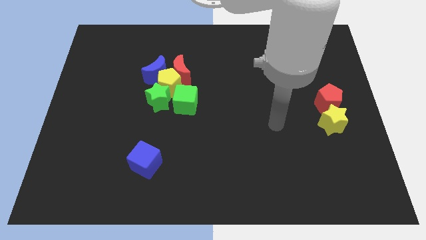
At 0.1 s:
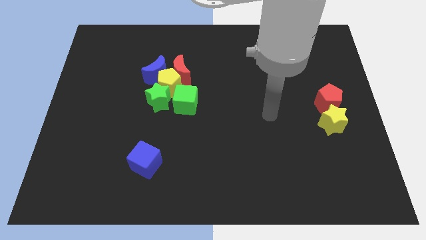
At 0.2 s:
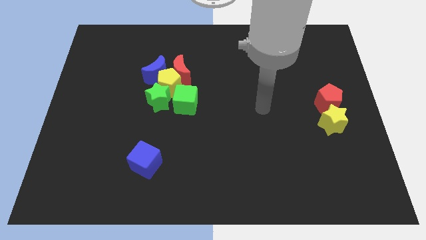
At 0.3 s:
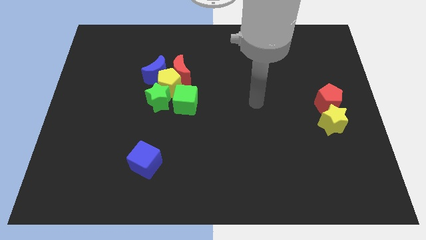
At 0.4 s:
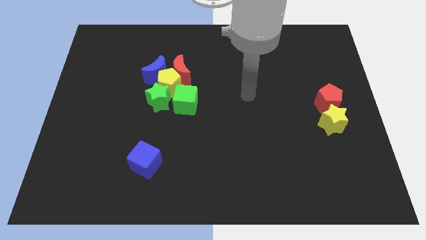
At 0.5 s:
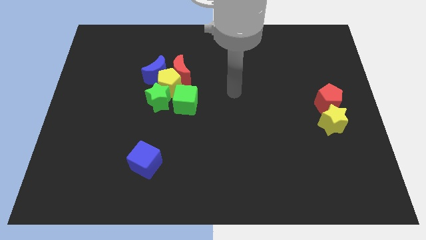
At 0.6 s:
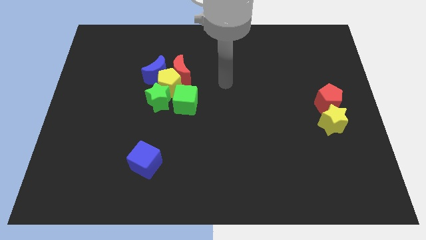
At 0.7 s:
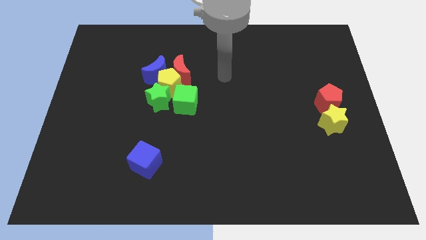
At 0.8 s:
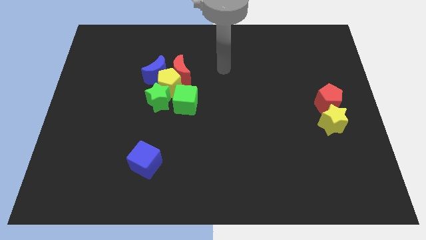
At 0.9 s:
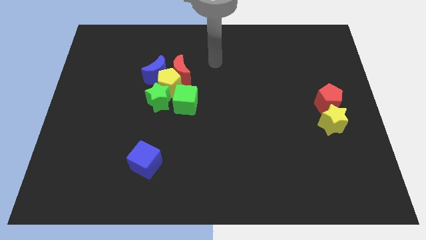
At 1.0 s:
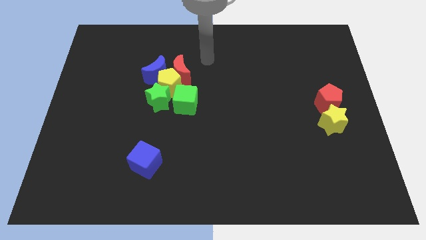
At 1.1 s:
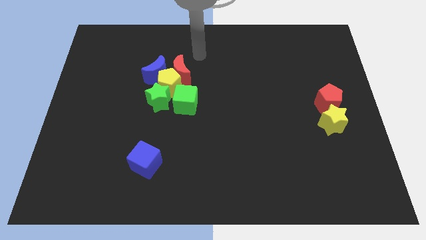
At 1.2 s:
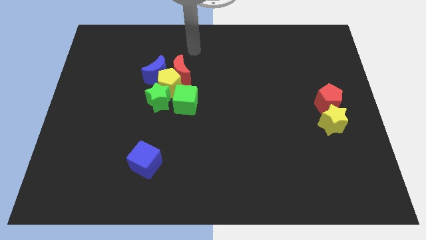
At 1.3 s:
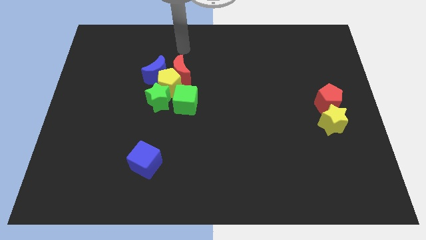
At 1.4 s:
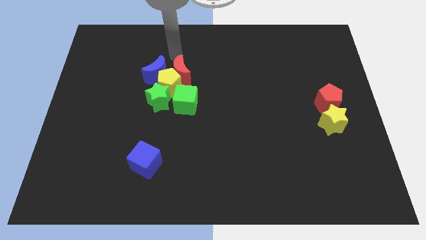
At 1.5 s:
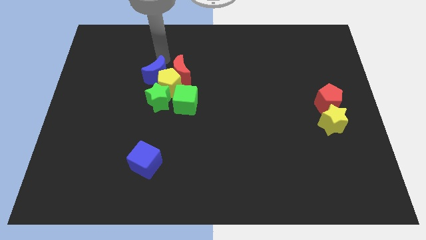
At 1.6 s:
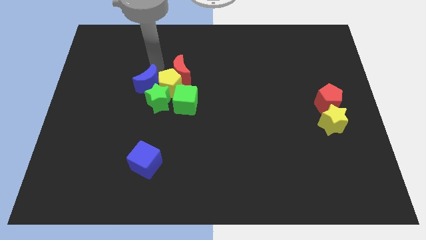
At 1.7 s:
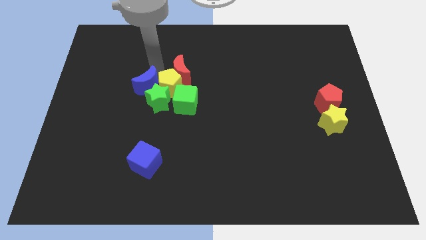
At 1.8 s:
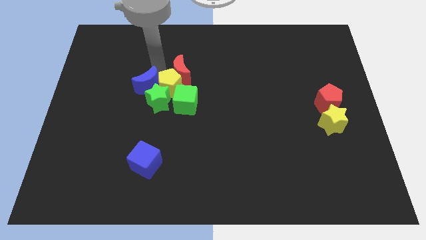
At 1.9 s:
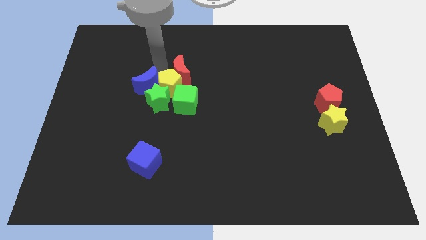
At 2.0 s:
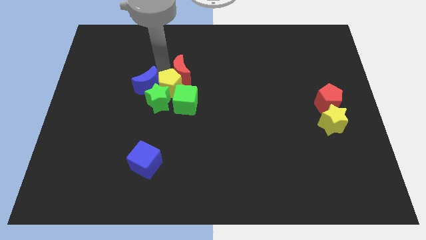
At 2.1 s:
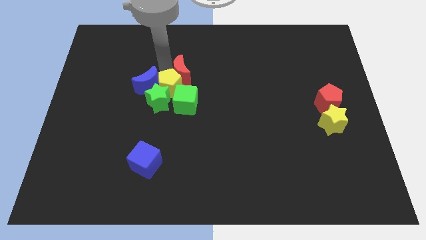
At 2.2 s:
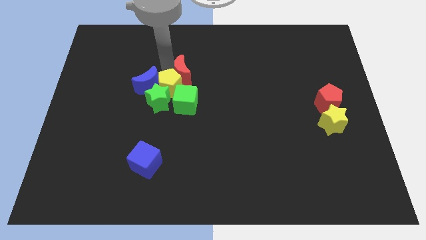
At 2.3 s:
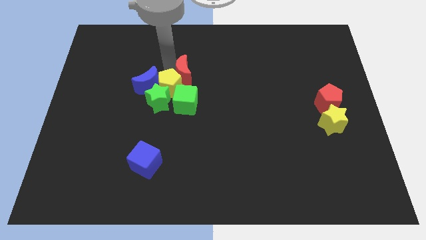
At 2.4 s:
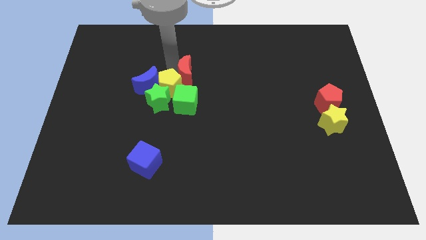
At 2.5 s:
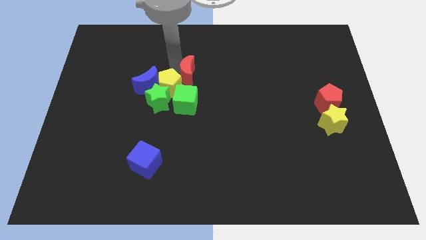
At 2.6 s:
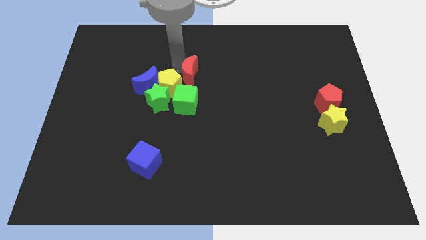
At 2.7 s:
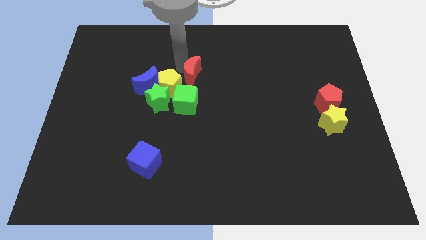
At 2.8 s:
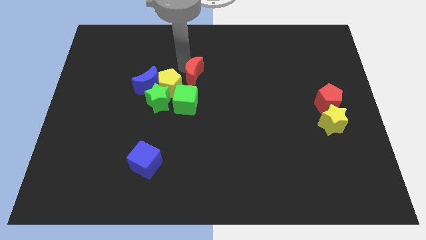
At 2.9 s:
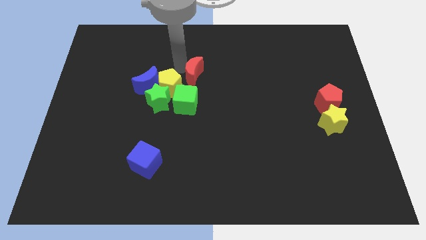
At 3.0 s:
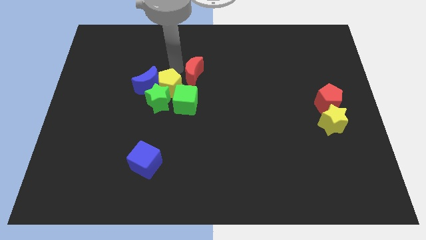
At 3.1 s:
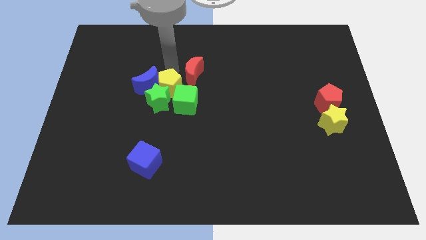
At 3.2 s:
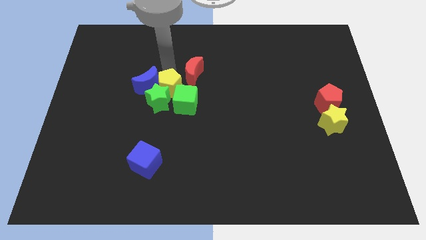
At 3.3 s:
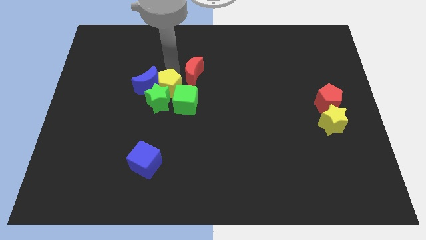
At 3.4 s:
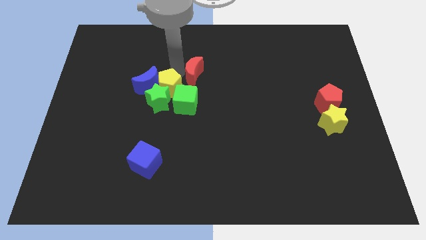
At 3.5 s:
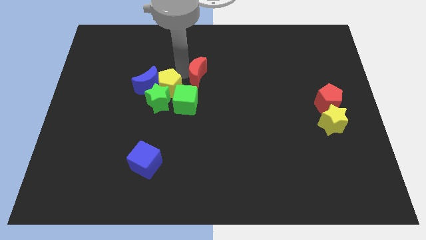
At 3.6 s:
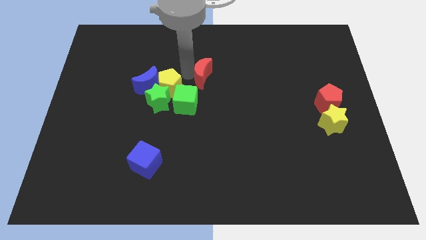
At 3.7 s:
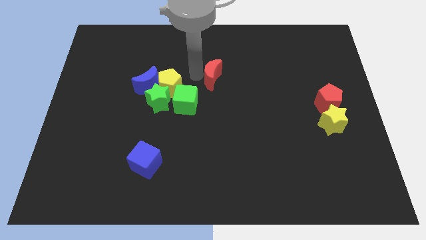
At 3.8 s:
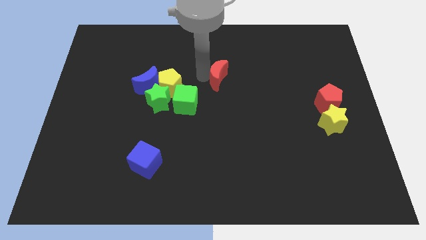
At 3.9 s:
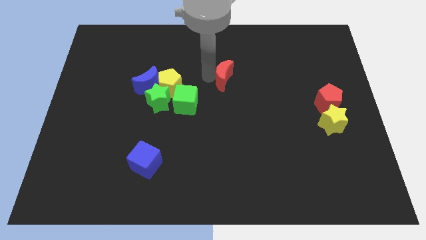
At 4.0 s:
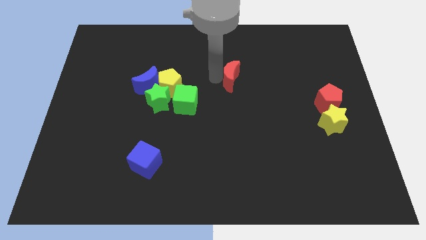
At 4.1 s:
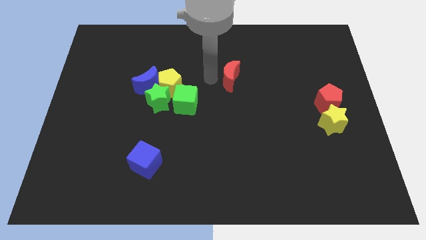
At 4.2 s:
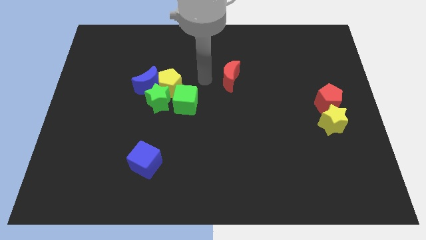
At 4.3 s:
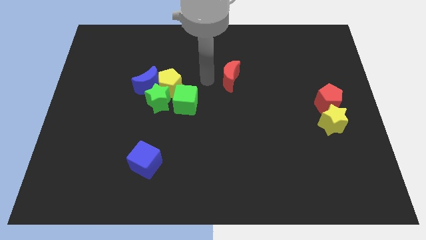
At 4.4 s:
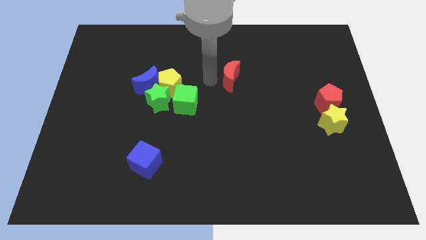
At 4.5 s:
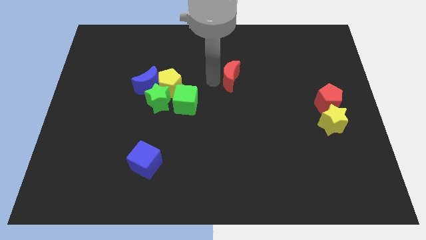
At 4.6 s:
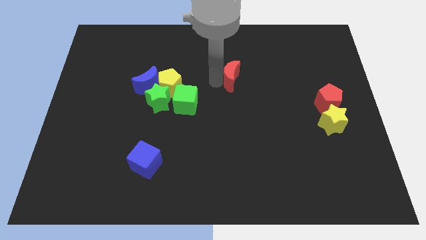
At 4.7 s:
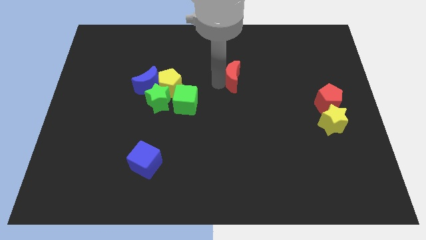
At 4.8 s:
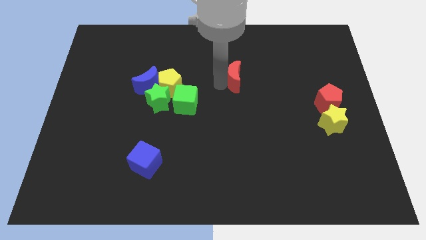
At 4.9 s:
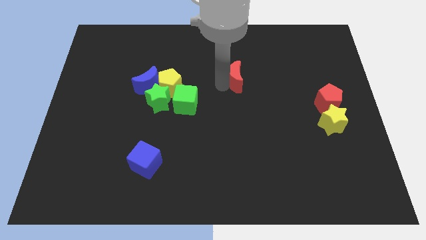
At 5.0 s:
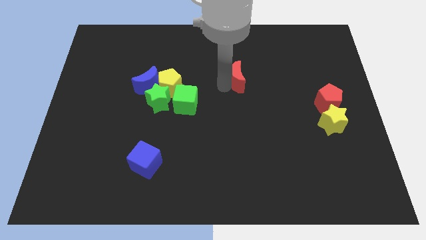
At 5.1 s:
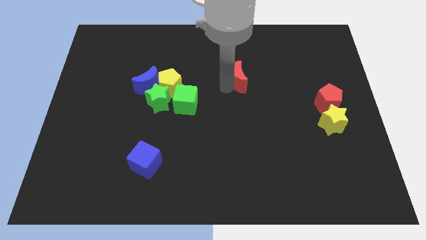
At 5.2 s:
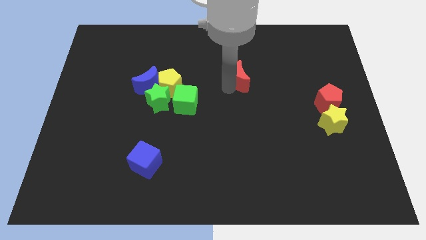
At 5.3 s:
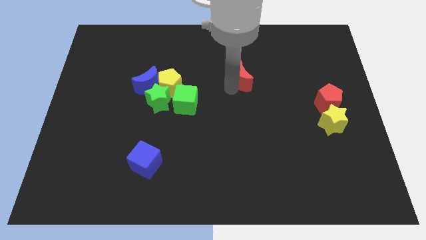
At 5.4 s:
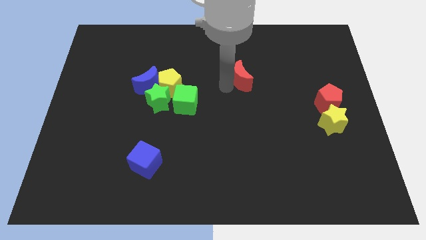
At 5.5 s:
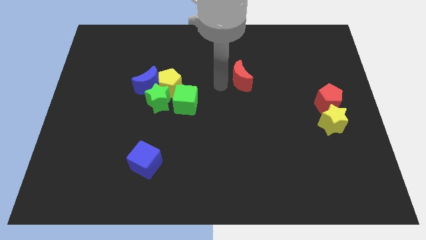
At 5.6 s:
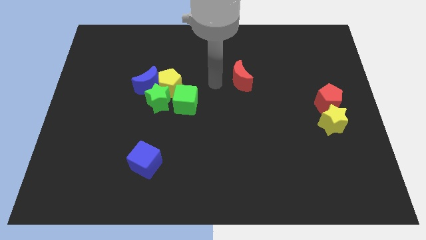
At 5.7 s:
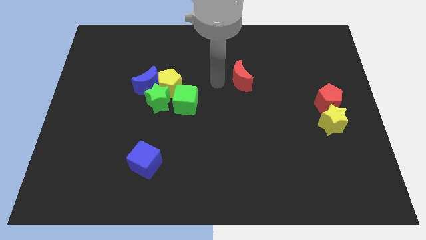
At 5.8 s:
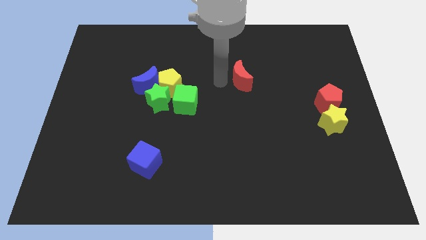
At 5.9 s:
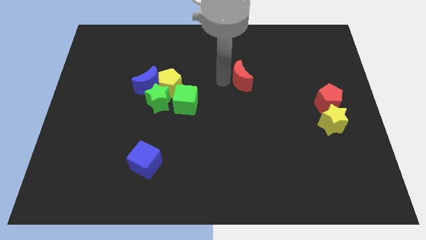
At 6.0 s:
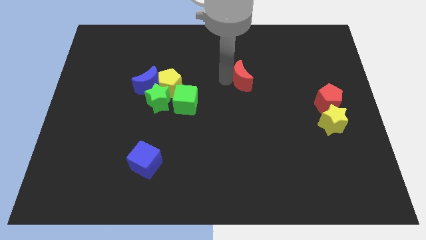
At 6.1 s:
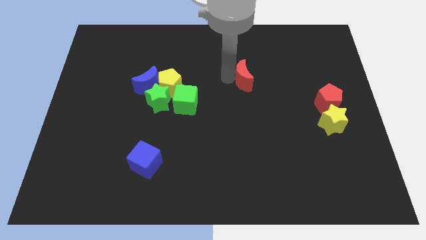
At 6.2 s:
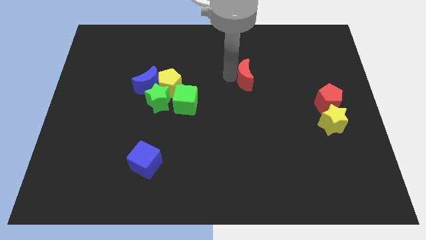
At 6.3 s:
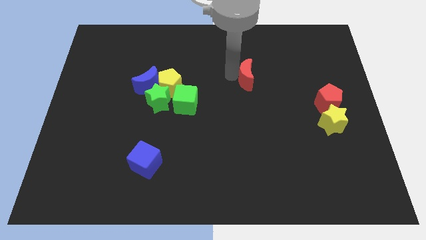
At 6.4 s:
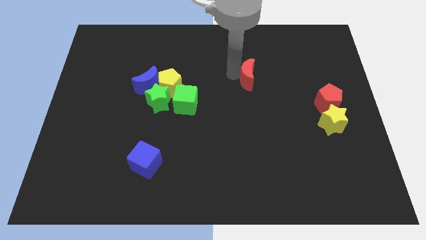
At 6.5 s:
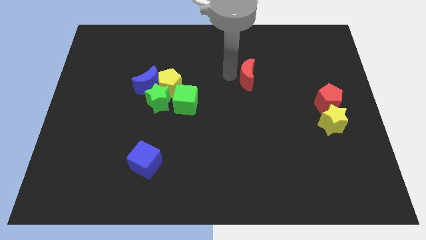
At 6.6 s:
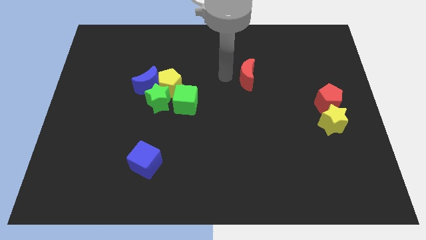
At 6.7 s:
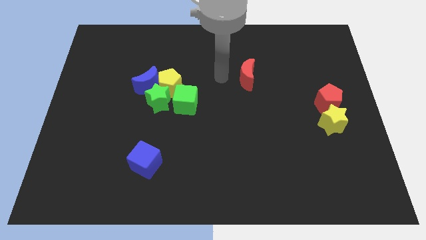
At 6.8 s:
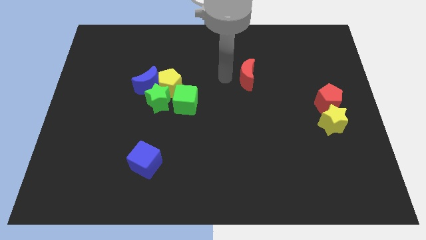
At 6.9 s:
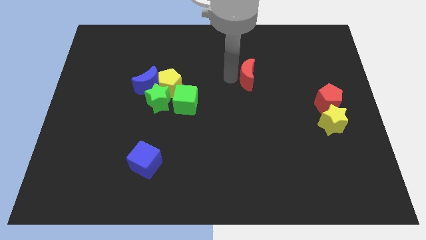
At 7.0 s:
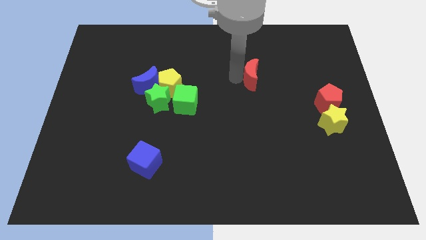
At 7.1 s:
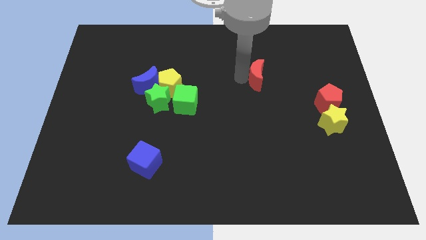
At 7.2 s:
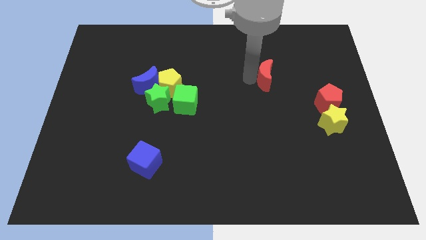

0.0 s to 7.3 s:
push the red moon right

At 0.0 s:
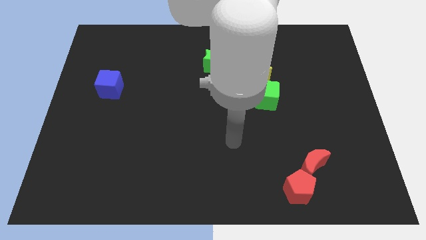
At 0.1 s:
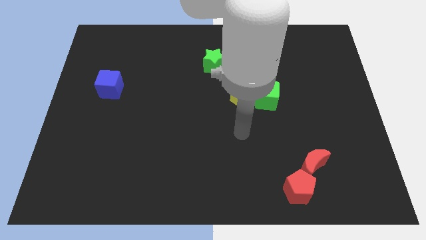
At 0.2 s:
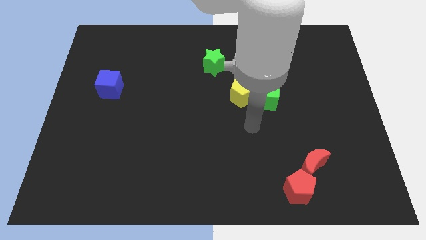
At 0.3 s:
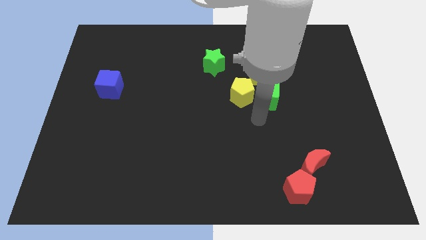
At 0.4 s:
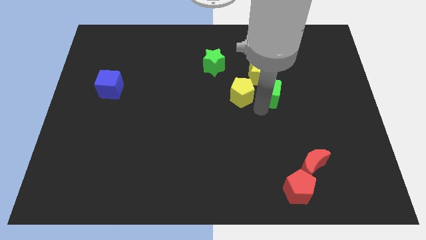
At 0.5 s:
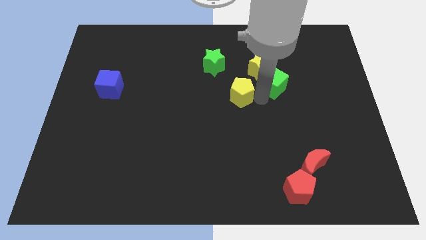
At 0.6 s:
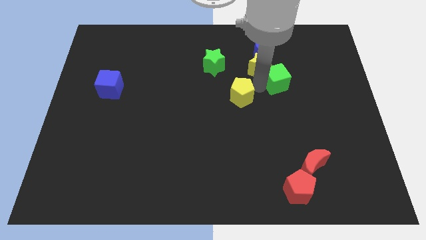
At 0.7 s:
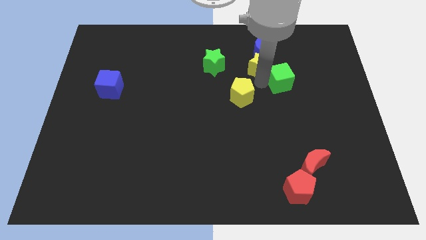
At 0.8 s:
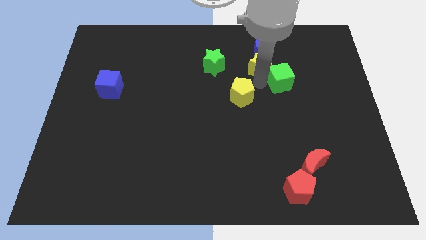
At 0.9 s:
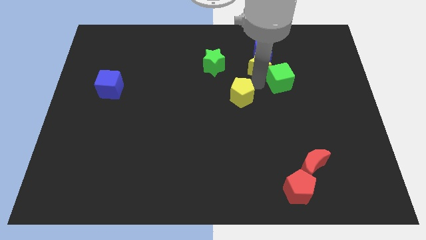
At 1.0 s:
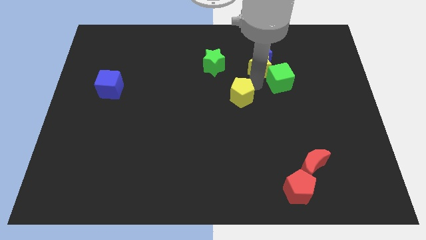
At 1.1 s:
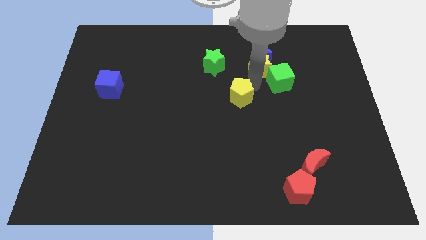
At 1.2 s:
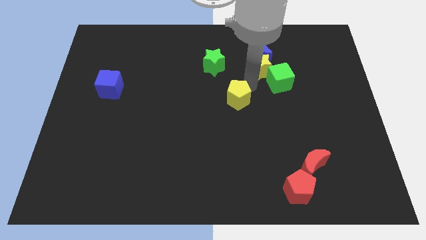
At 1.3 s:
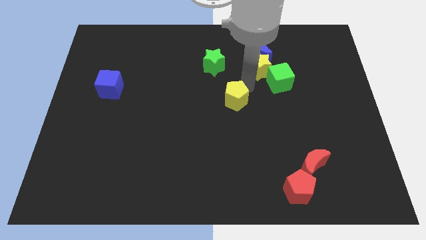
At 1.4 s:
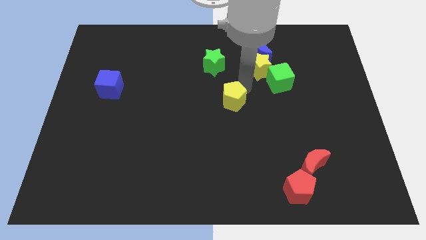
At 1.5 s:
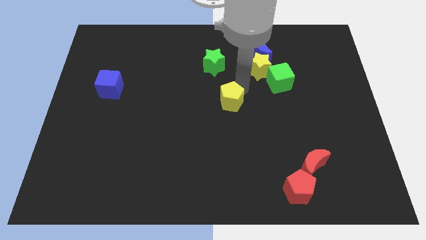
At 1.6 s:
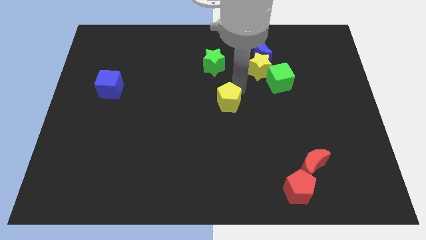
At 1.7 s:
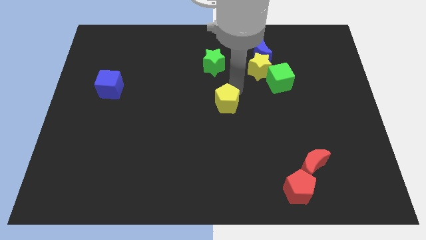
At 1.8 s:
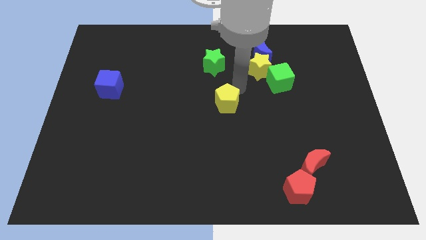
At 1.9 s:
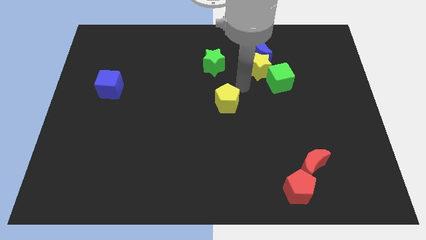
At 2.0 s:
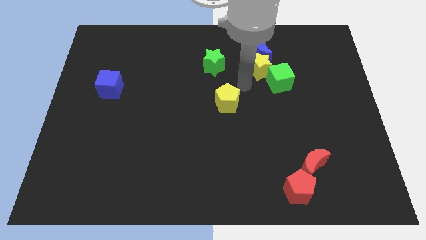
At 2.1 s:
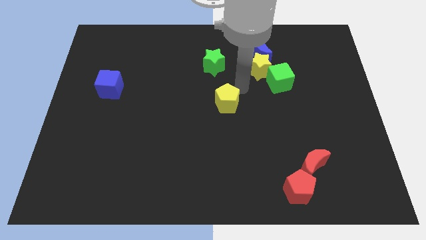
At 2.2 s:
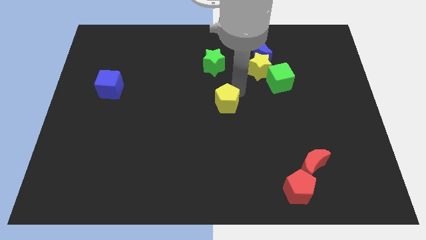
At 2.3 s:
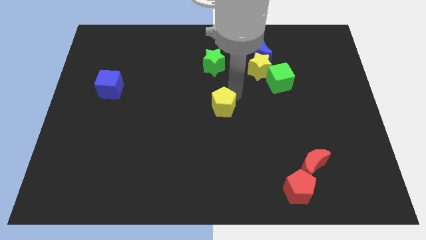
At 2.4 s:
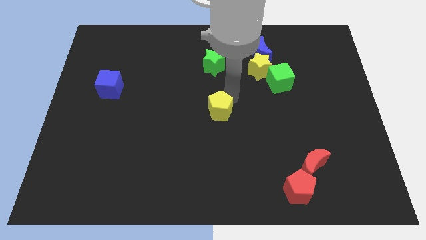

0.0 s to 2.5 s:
slide the yellow pentagon diagonally downwards and to the left a bit
